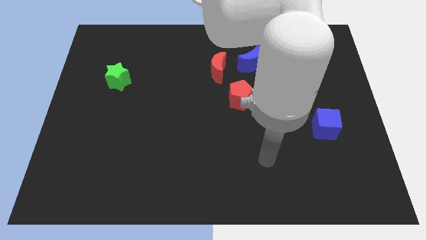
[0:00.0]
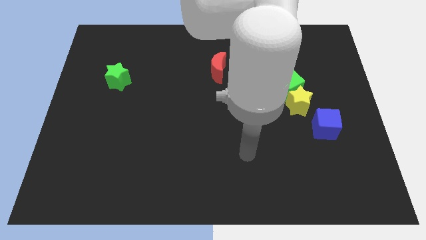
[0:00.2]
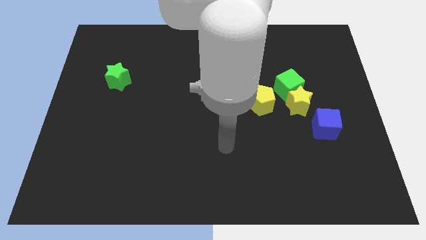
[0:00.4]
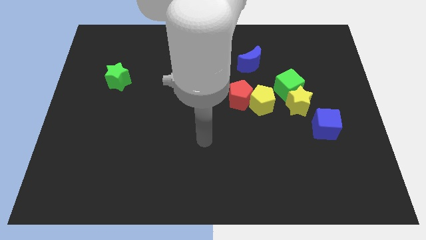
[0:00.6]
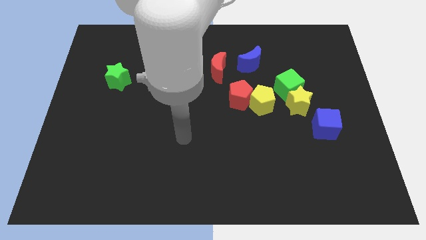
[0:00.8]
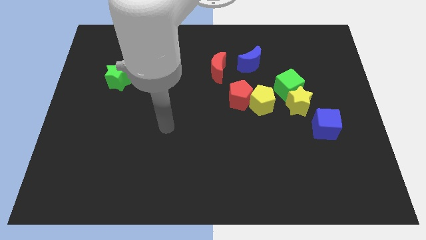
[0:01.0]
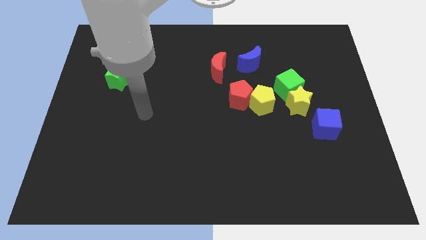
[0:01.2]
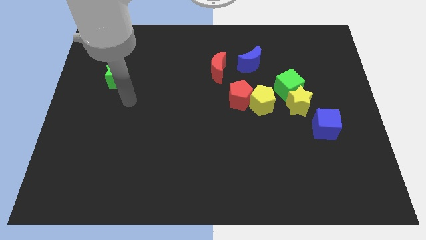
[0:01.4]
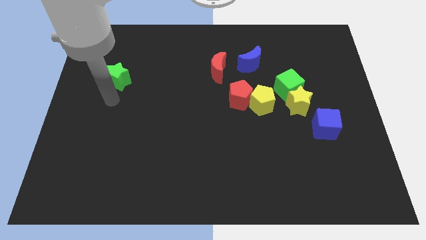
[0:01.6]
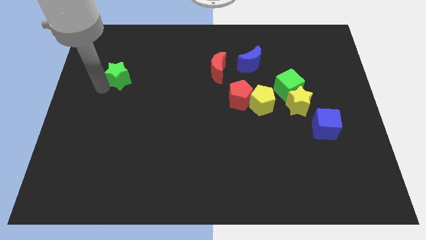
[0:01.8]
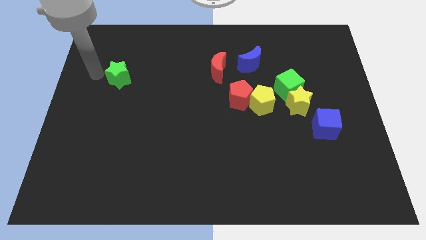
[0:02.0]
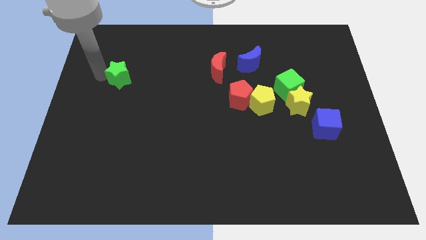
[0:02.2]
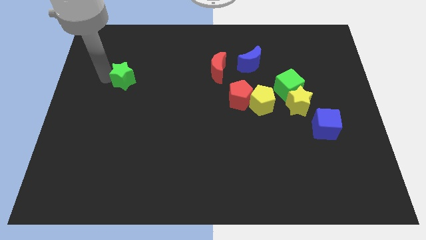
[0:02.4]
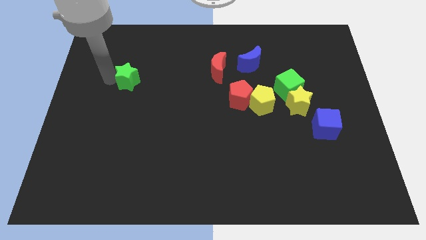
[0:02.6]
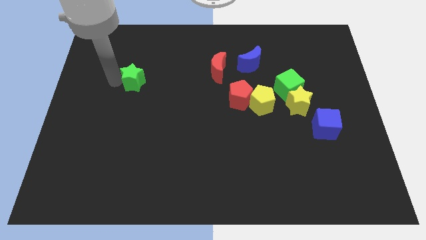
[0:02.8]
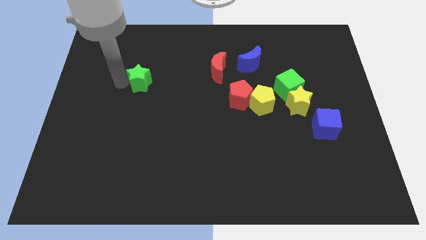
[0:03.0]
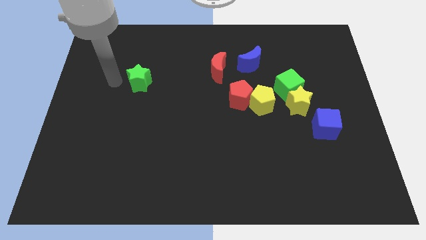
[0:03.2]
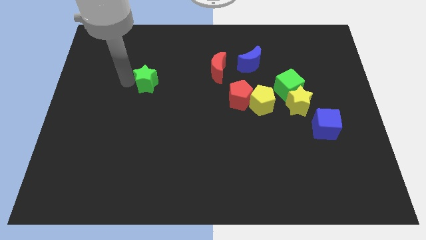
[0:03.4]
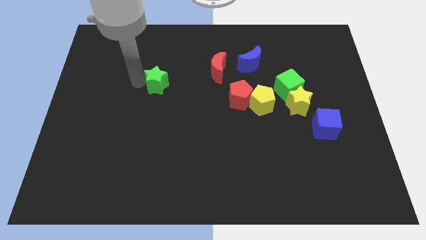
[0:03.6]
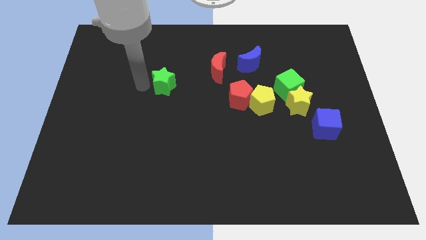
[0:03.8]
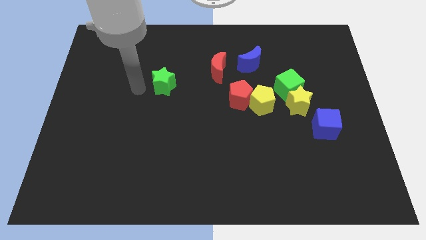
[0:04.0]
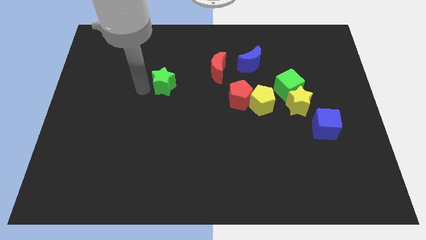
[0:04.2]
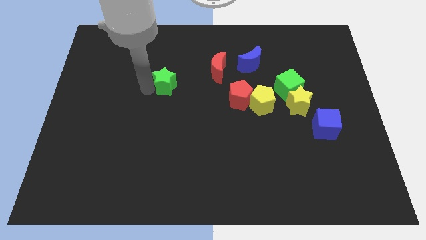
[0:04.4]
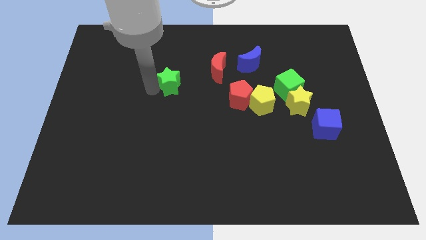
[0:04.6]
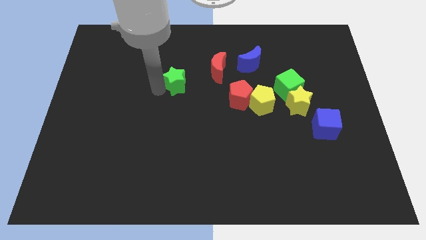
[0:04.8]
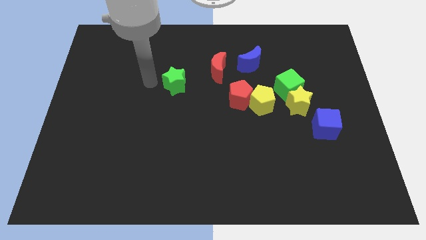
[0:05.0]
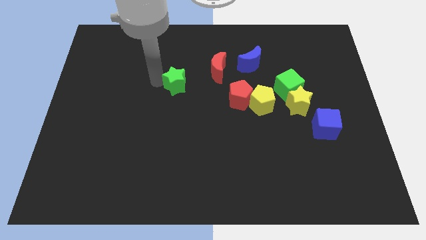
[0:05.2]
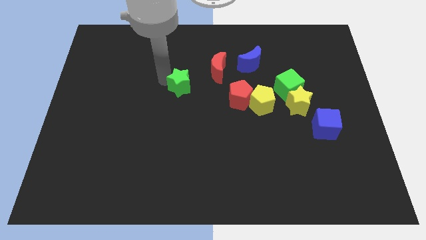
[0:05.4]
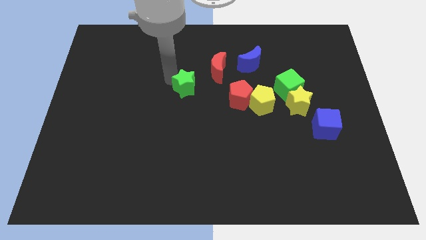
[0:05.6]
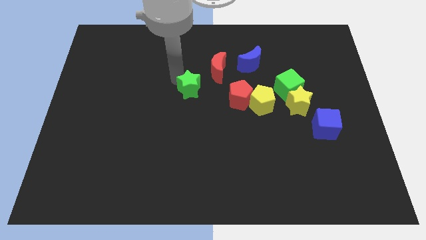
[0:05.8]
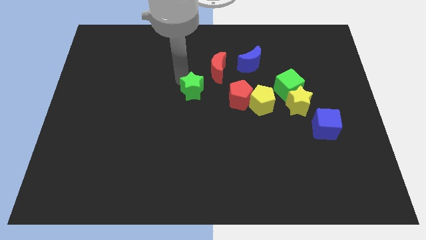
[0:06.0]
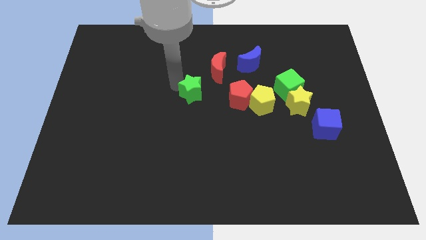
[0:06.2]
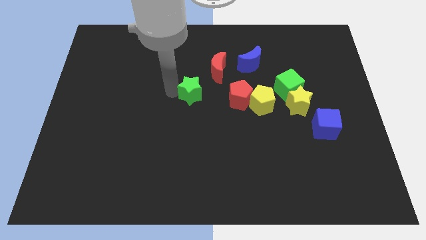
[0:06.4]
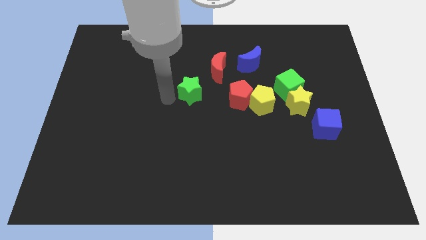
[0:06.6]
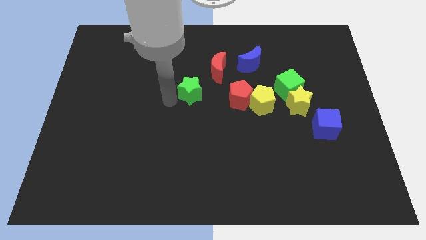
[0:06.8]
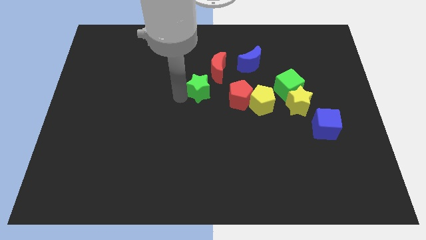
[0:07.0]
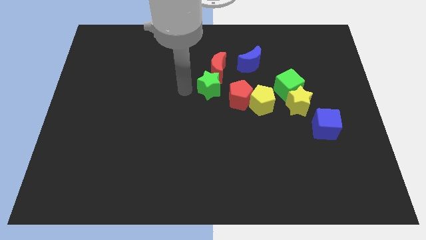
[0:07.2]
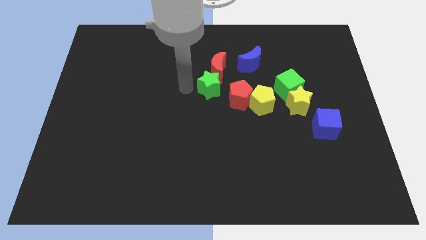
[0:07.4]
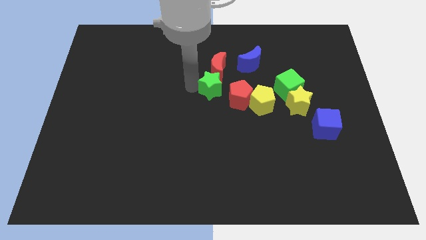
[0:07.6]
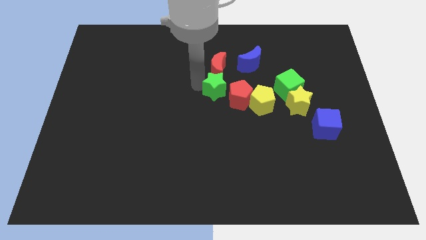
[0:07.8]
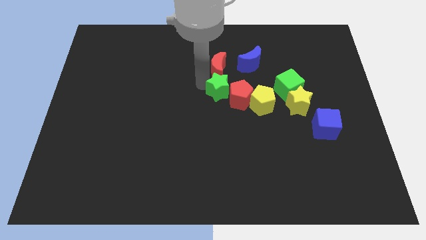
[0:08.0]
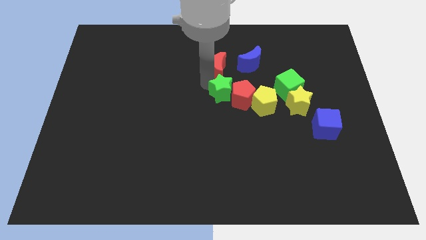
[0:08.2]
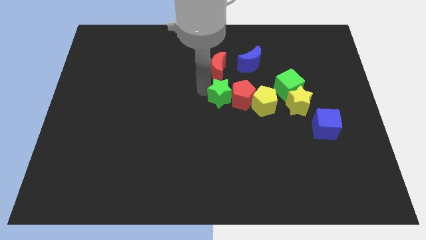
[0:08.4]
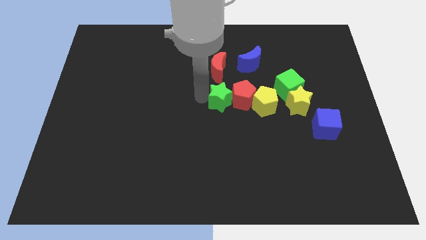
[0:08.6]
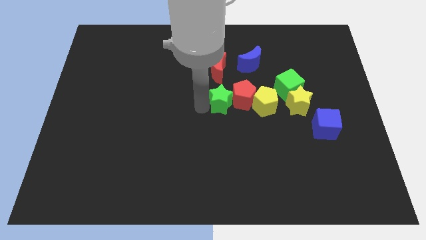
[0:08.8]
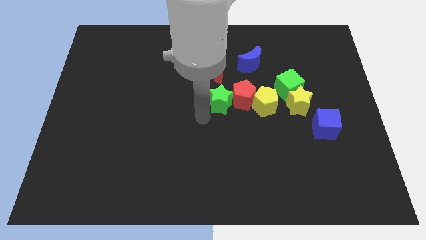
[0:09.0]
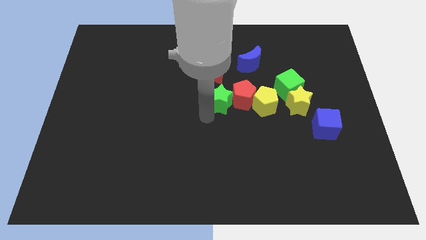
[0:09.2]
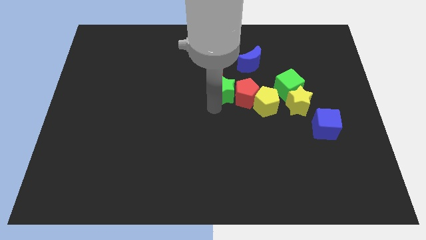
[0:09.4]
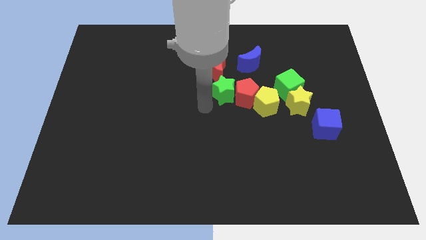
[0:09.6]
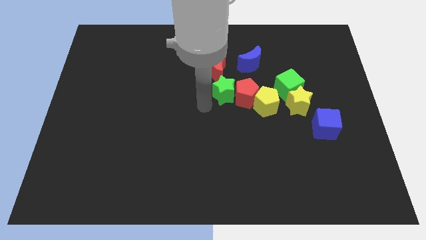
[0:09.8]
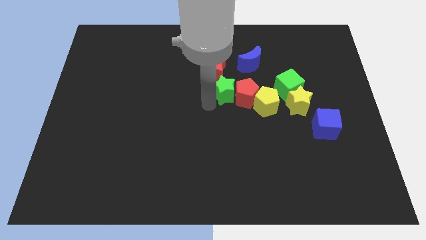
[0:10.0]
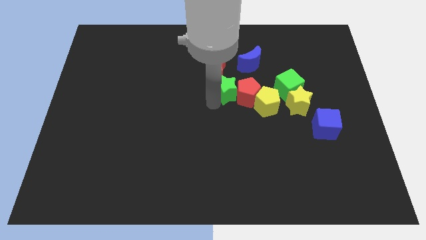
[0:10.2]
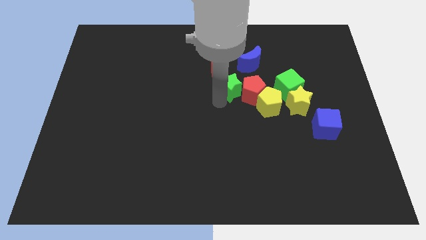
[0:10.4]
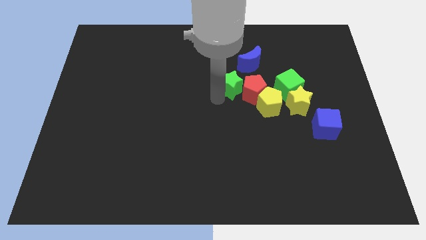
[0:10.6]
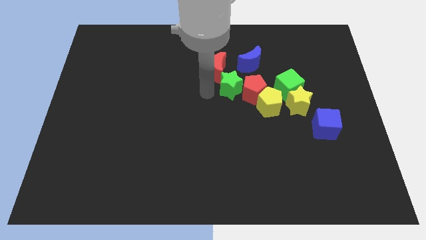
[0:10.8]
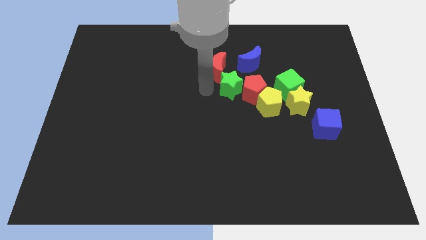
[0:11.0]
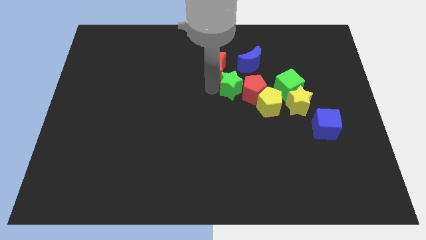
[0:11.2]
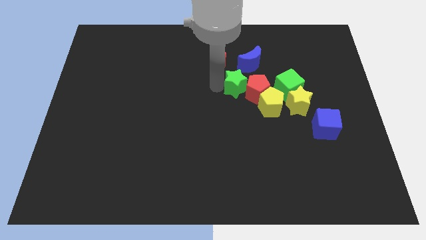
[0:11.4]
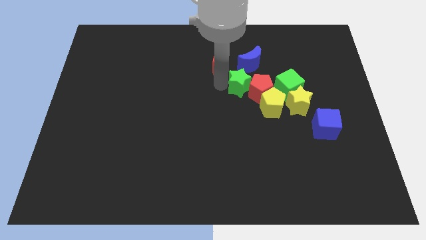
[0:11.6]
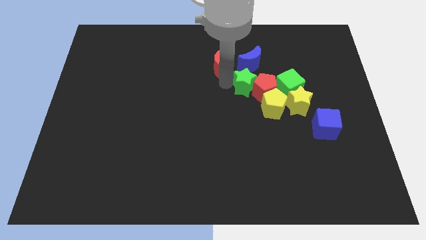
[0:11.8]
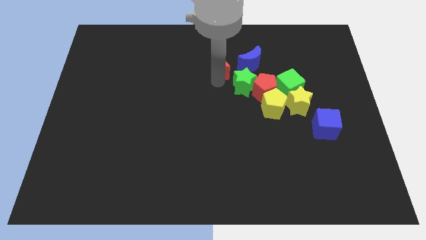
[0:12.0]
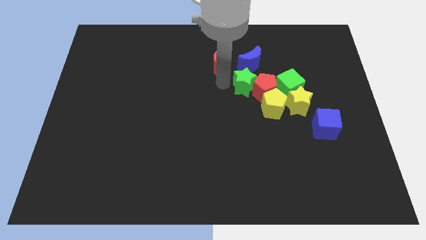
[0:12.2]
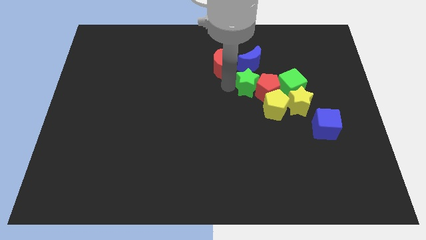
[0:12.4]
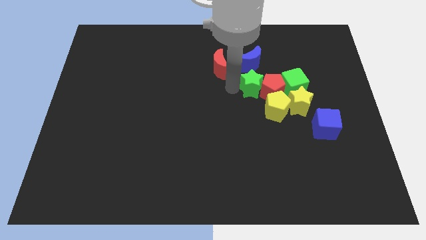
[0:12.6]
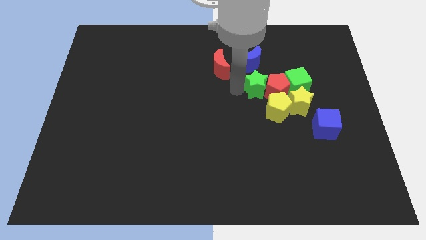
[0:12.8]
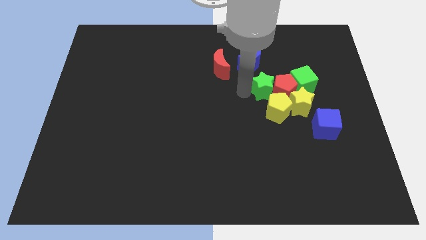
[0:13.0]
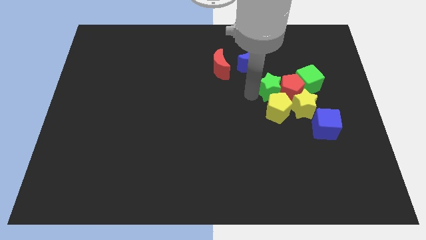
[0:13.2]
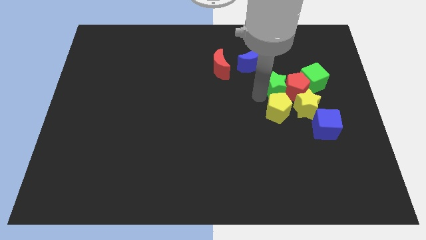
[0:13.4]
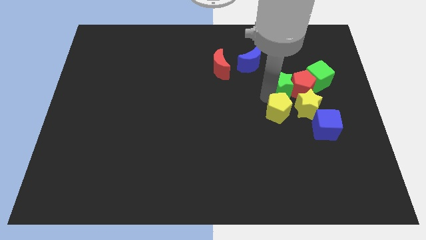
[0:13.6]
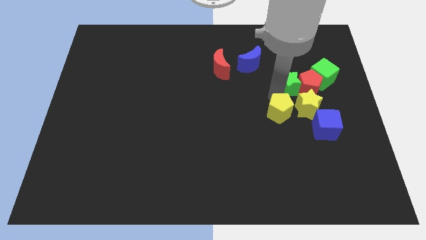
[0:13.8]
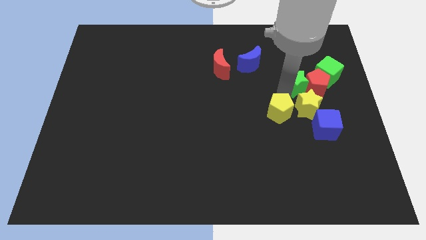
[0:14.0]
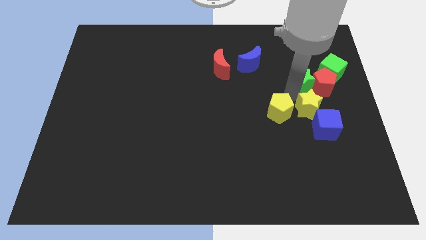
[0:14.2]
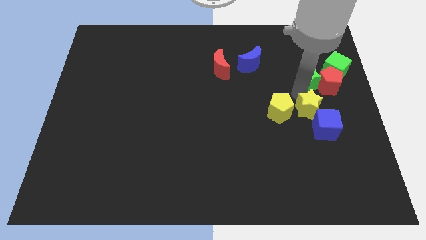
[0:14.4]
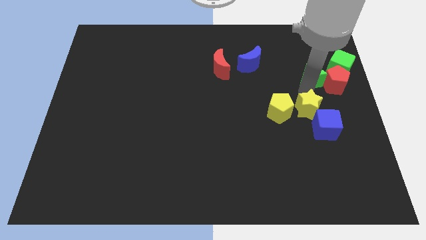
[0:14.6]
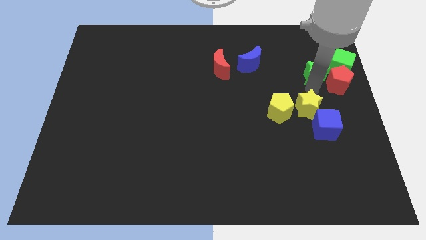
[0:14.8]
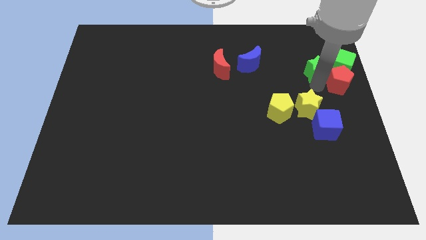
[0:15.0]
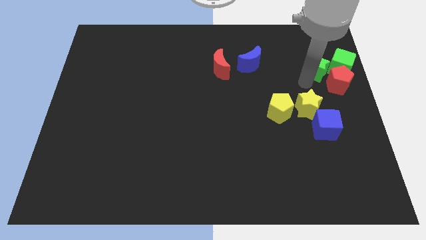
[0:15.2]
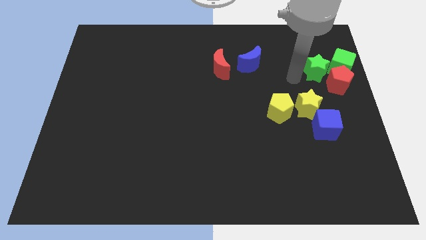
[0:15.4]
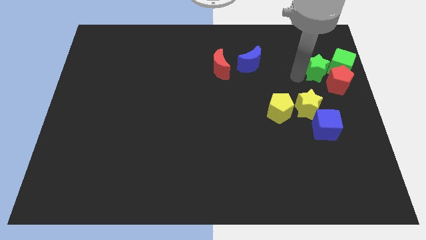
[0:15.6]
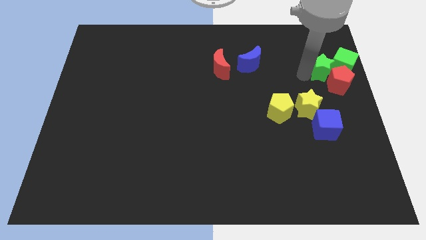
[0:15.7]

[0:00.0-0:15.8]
push the green star next to the green cube

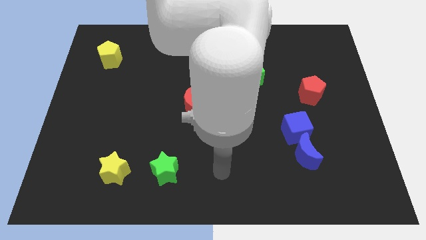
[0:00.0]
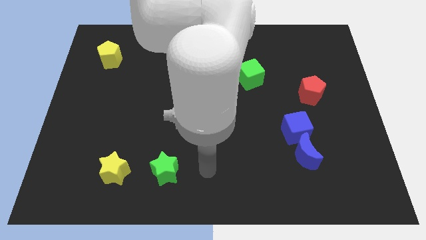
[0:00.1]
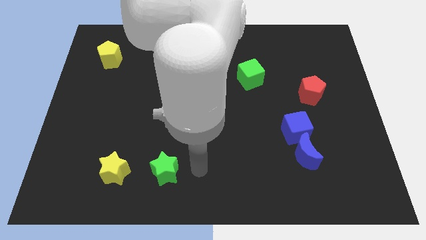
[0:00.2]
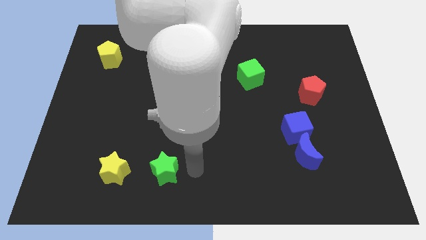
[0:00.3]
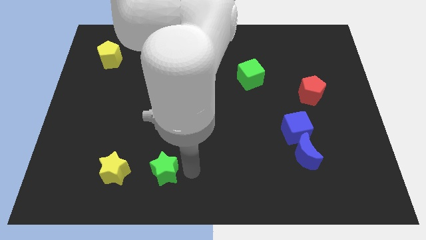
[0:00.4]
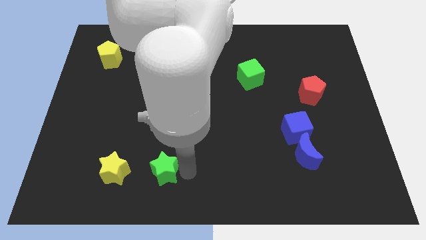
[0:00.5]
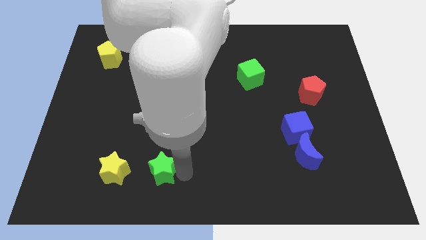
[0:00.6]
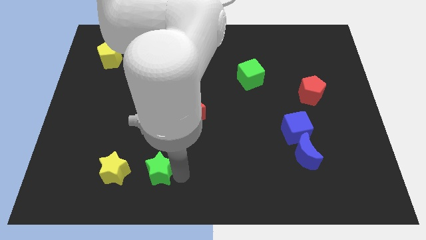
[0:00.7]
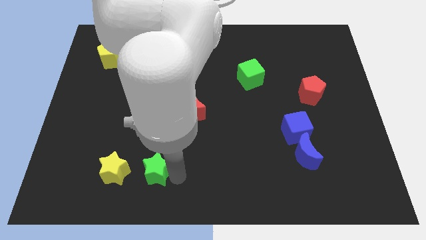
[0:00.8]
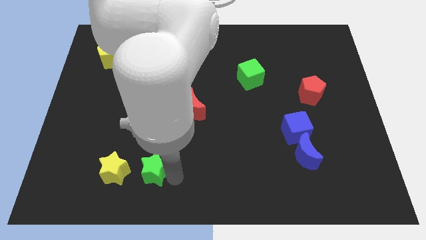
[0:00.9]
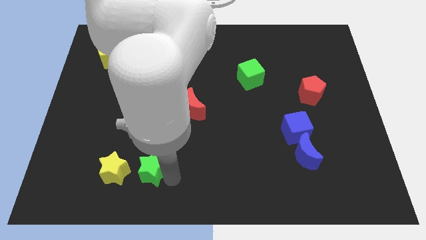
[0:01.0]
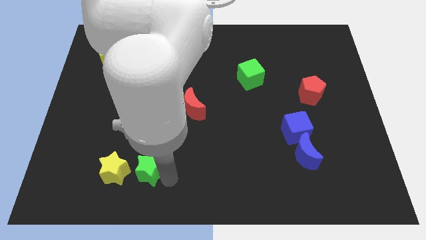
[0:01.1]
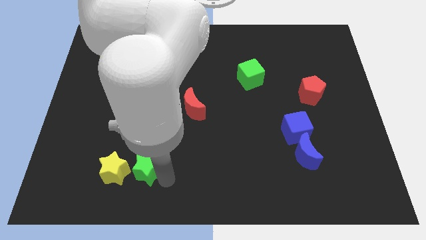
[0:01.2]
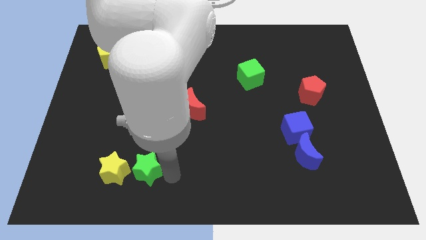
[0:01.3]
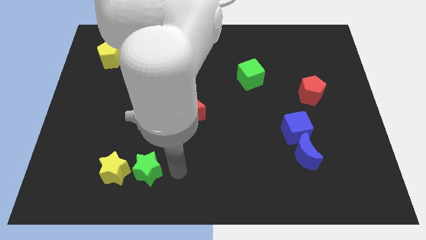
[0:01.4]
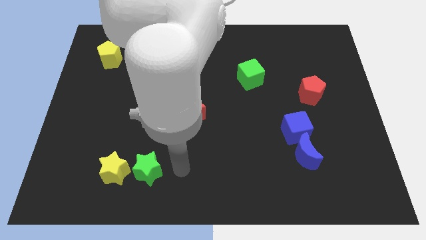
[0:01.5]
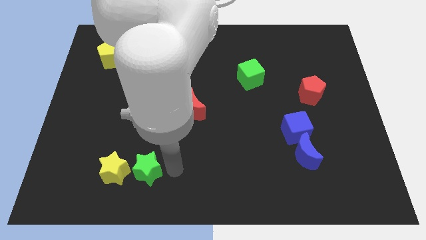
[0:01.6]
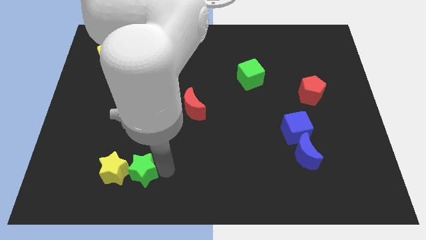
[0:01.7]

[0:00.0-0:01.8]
move the green star close to the yellow star
